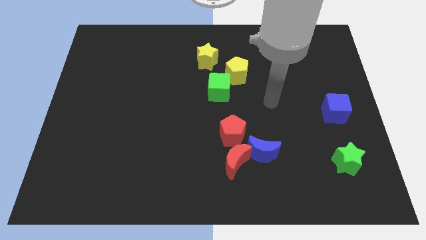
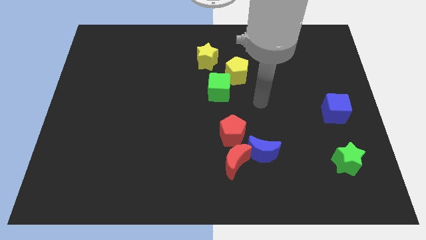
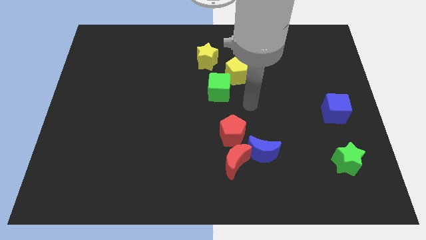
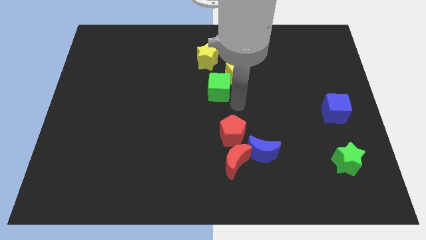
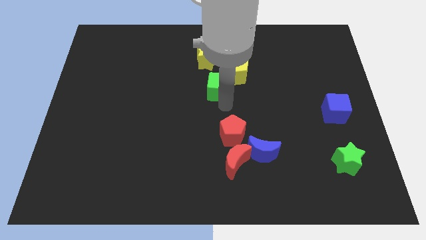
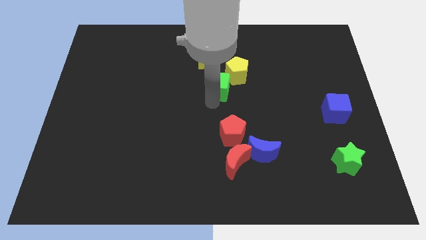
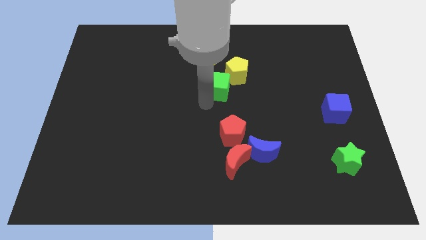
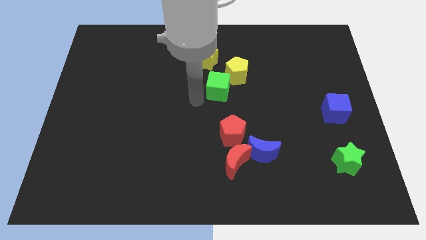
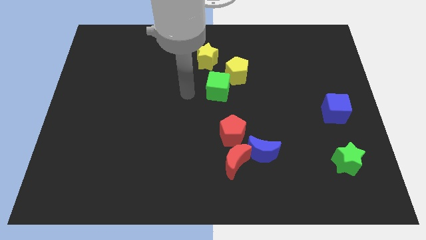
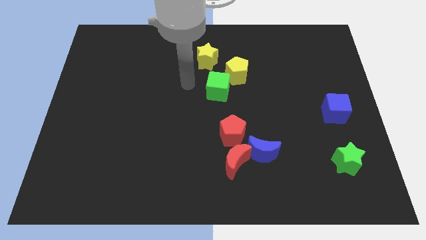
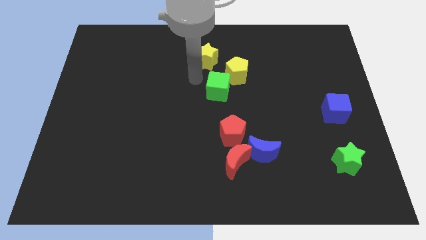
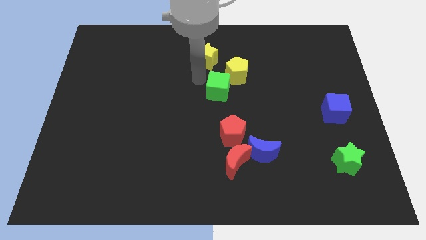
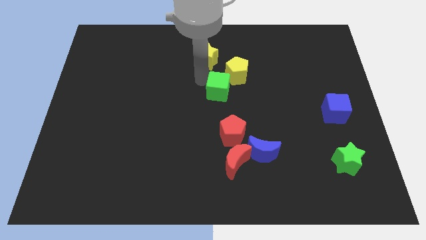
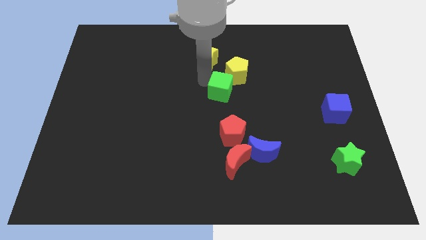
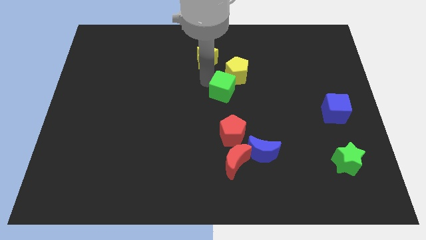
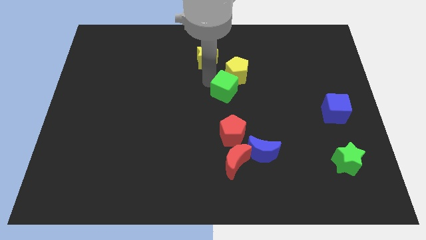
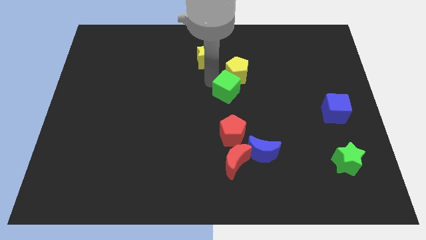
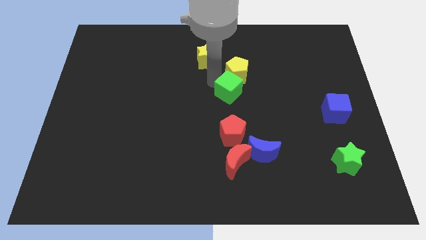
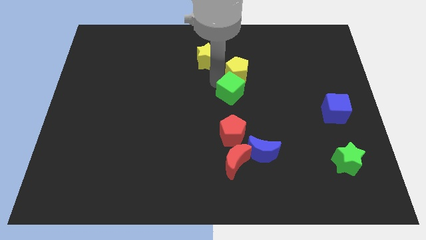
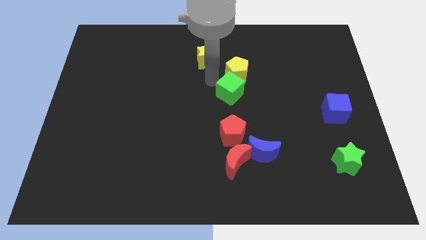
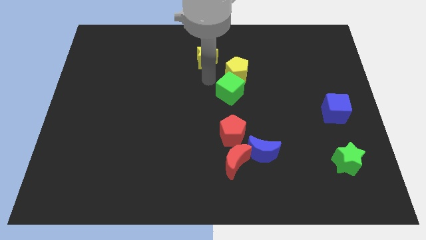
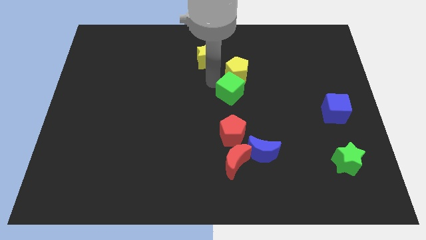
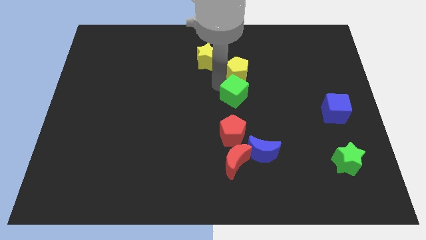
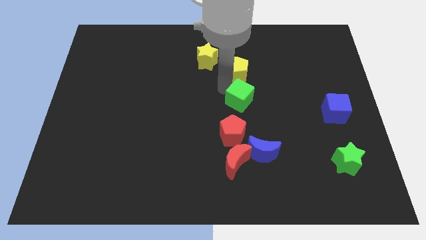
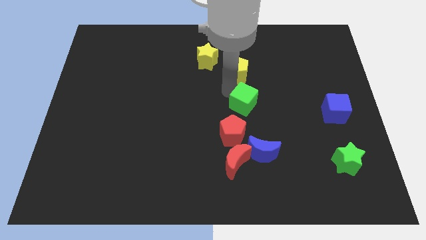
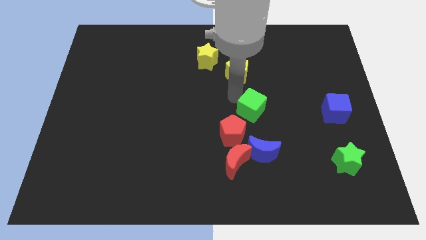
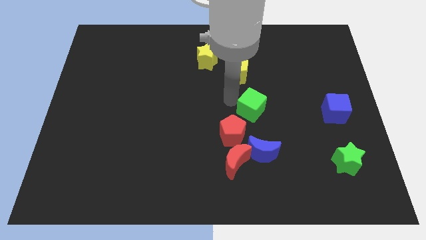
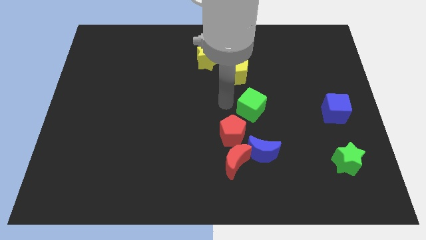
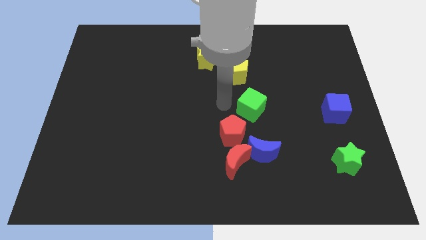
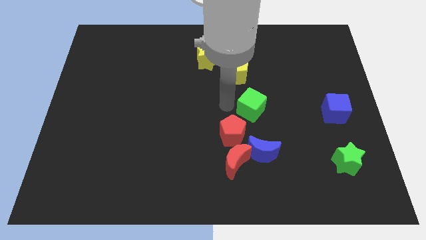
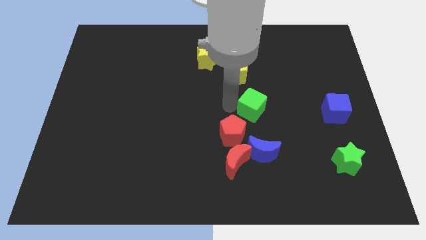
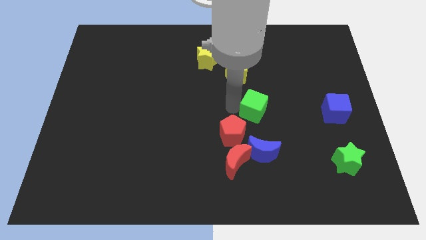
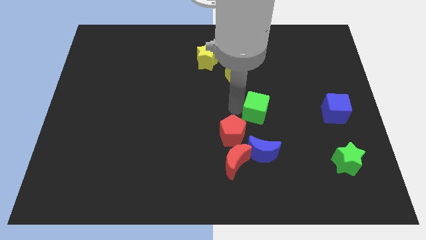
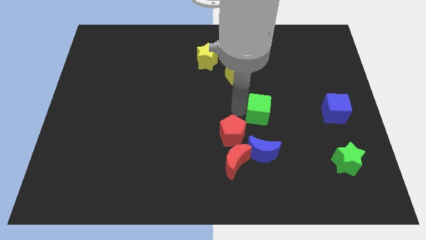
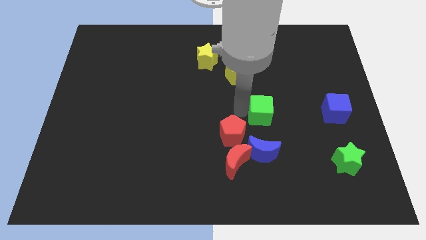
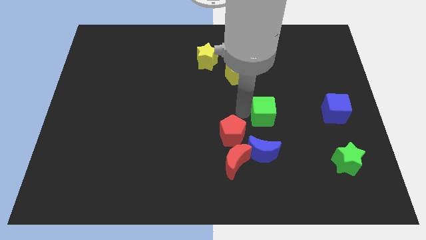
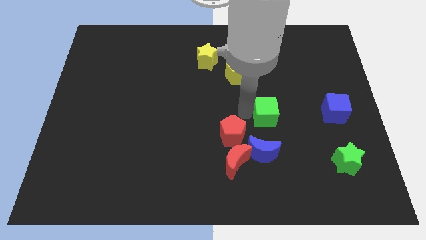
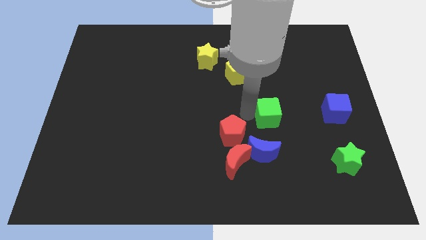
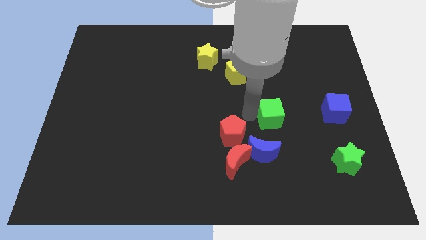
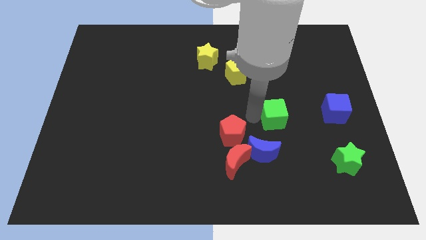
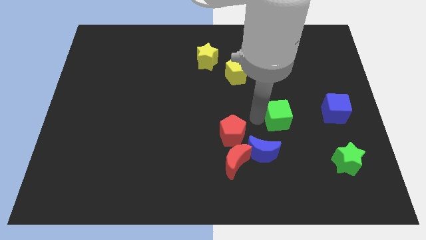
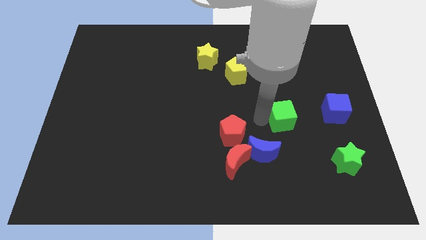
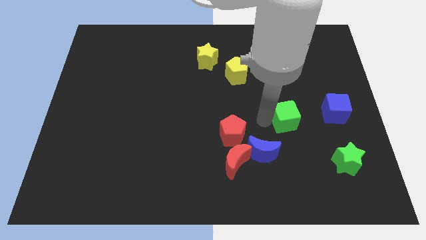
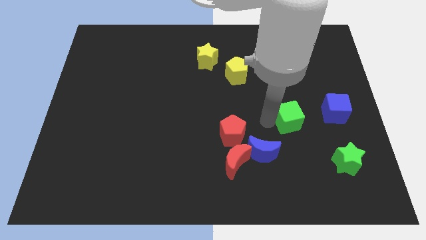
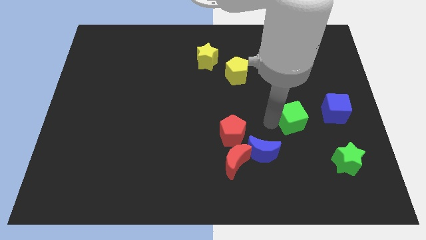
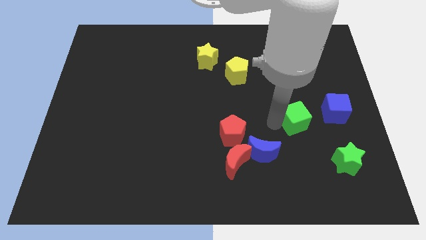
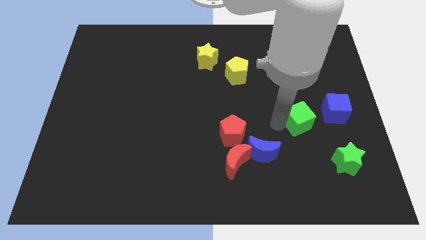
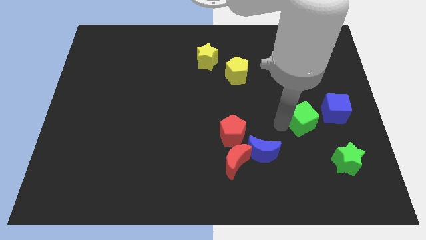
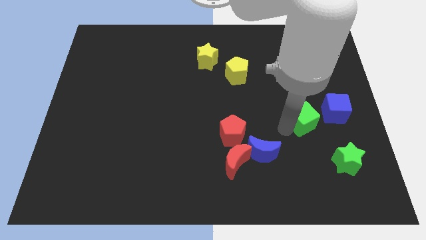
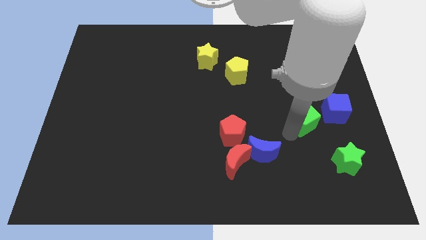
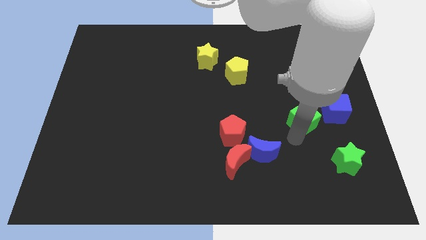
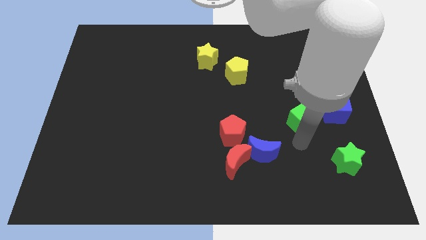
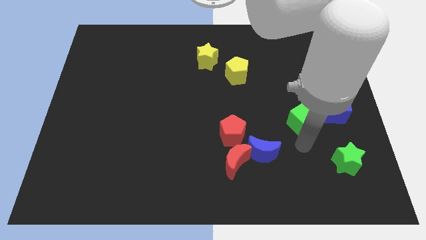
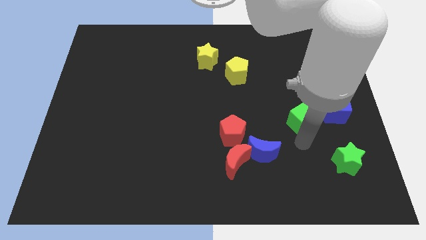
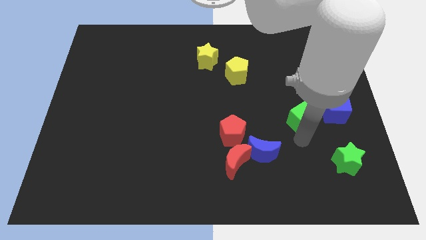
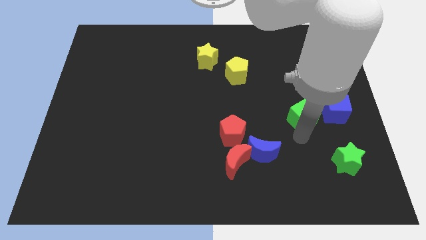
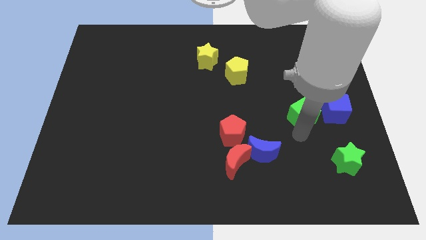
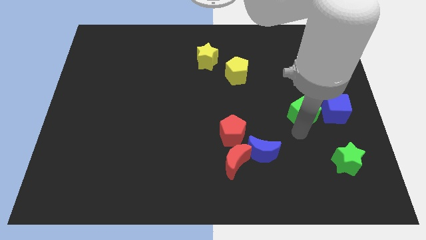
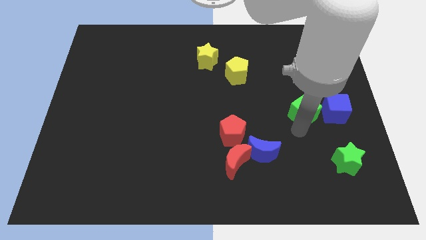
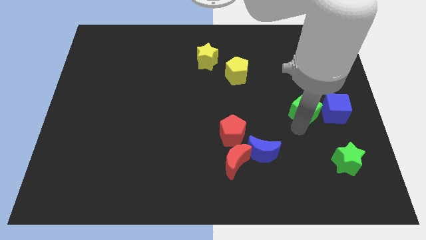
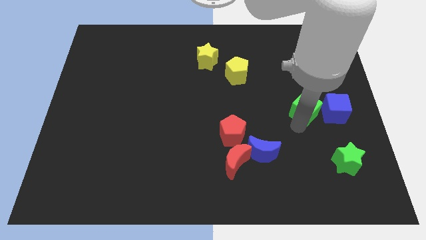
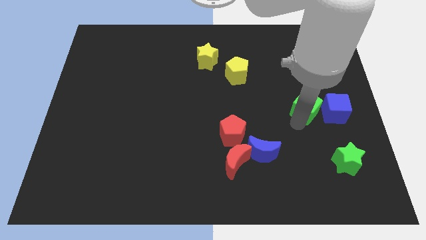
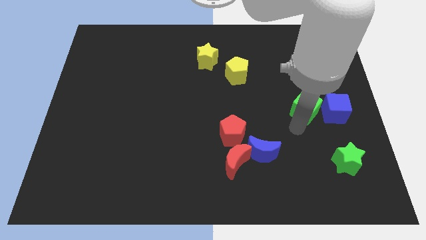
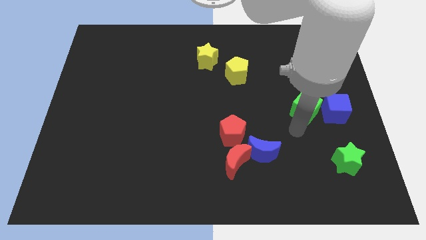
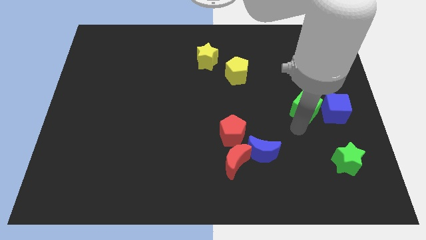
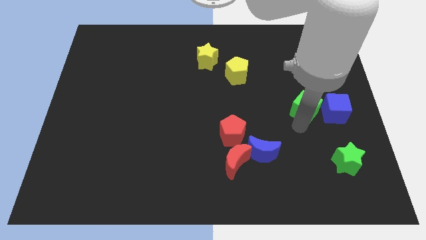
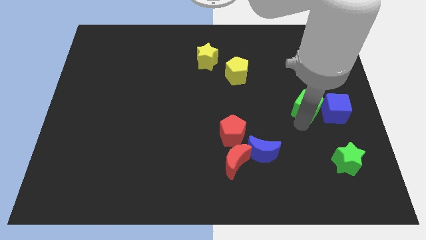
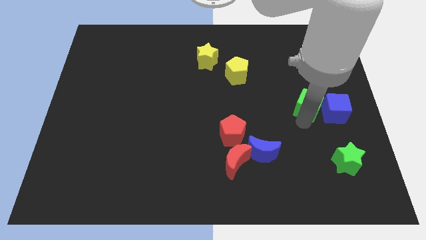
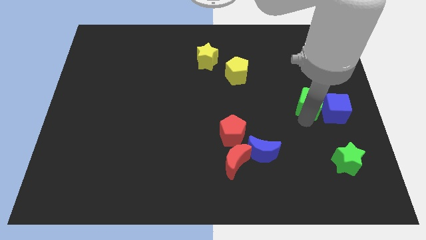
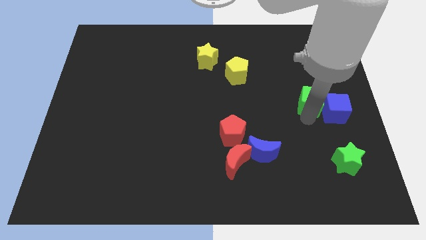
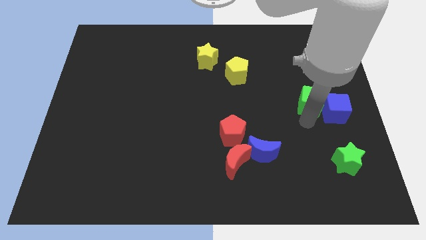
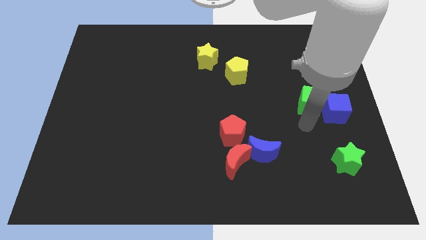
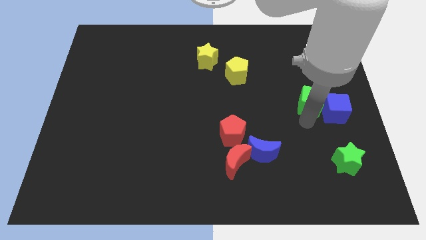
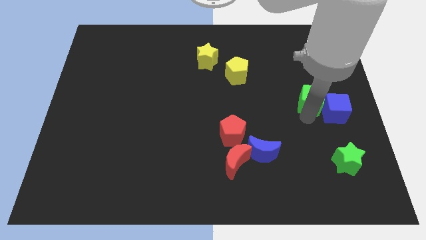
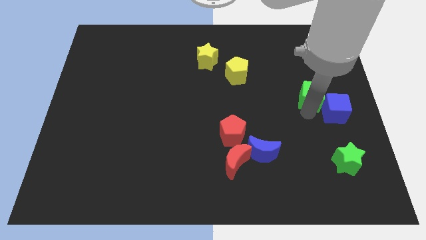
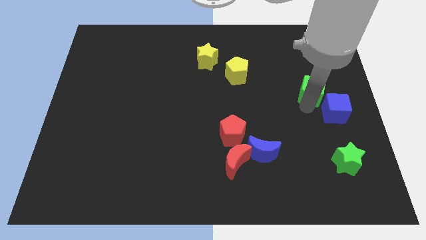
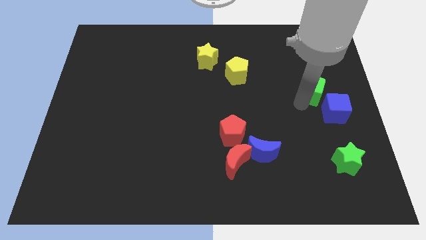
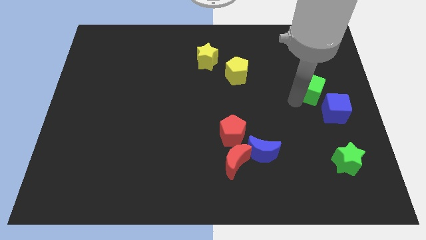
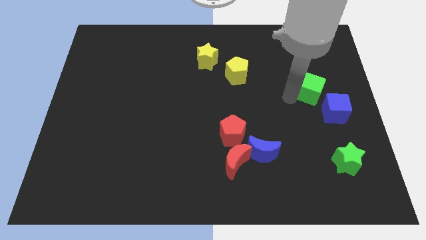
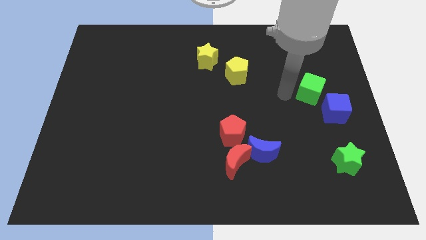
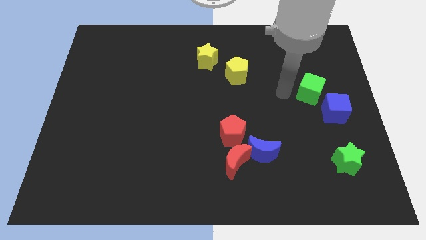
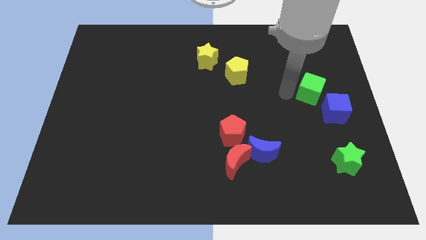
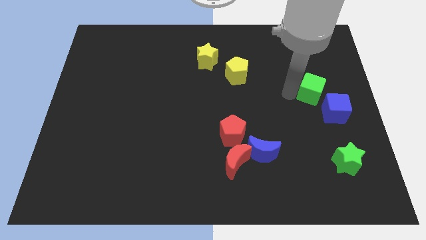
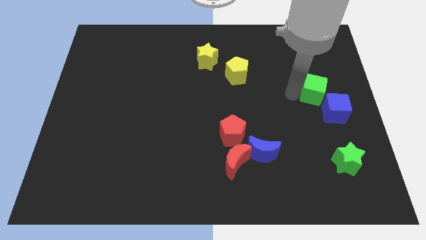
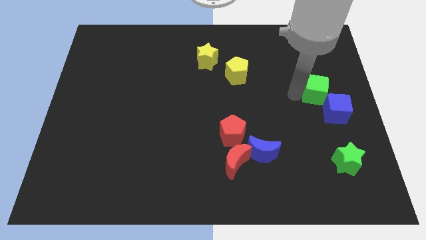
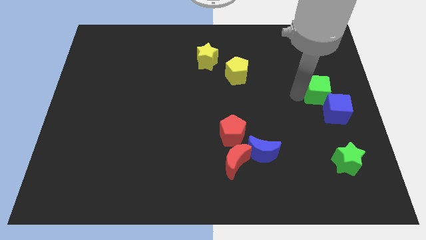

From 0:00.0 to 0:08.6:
move the green cube to the right side
